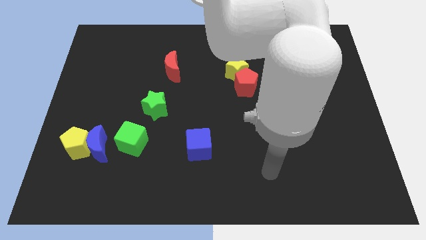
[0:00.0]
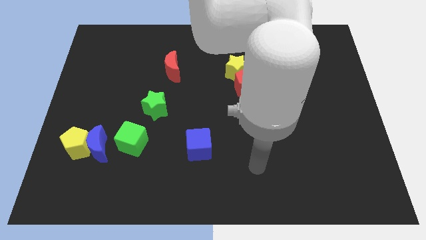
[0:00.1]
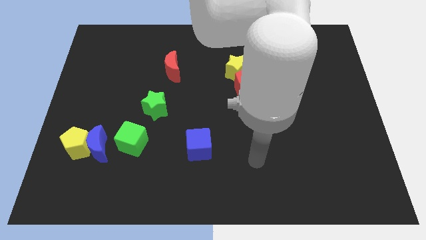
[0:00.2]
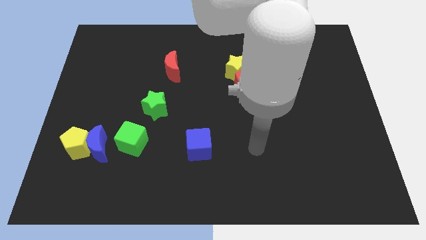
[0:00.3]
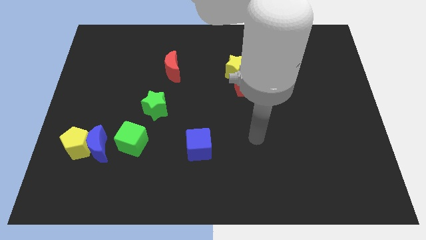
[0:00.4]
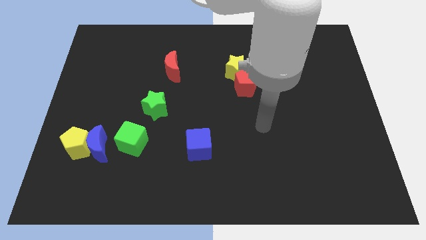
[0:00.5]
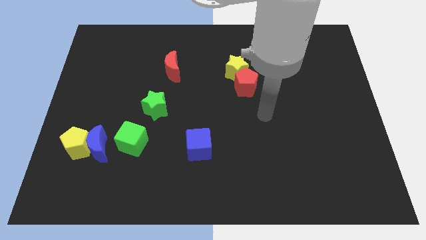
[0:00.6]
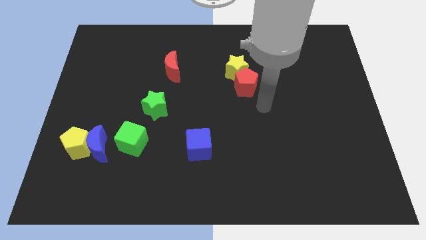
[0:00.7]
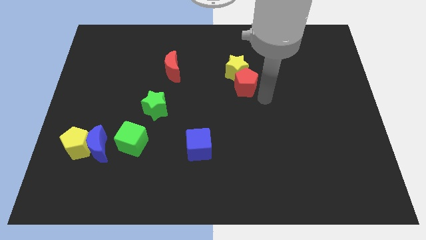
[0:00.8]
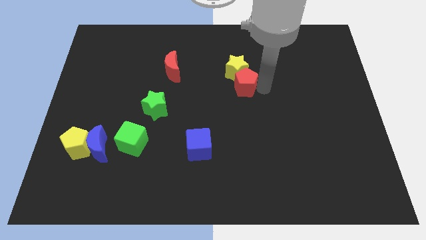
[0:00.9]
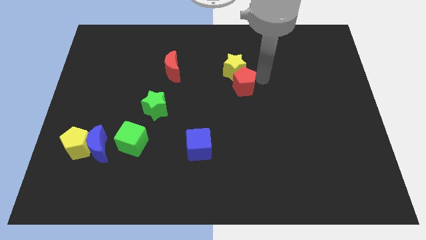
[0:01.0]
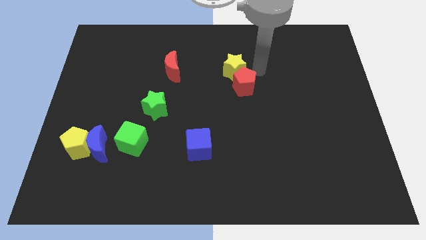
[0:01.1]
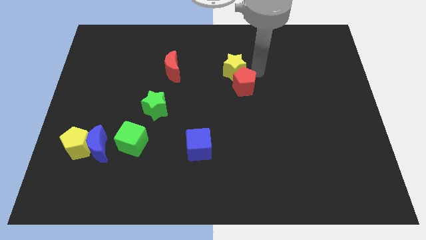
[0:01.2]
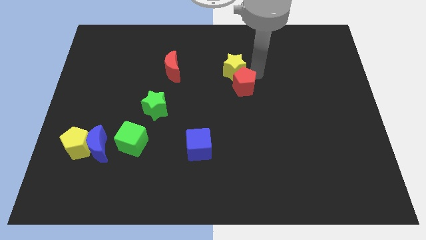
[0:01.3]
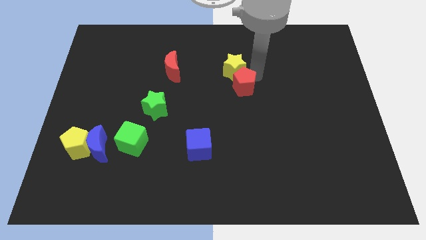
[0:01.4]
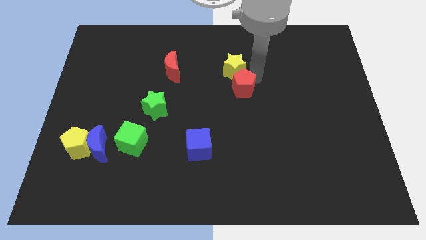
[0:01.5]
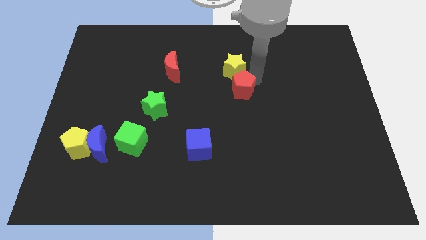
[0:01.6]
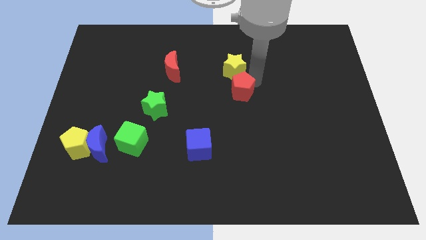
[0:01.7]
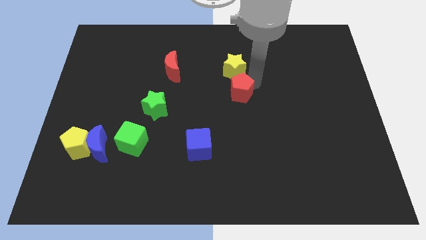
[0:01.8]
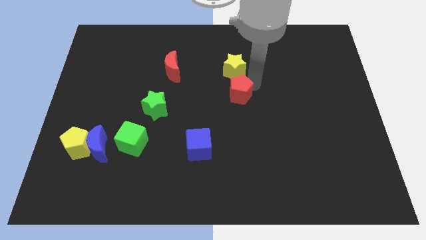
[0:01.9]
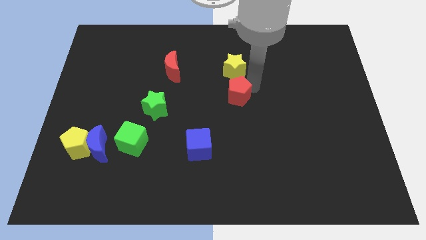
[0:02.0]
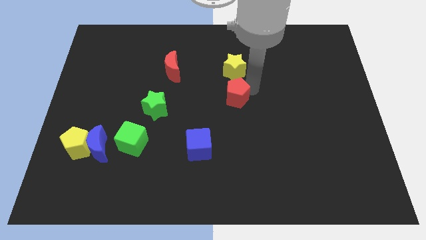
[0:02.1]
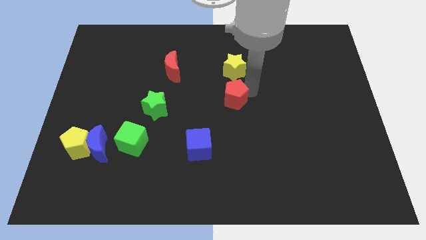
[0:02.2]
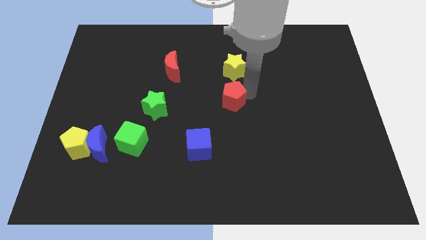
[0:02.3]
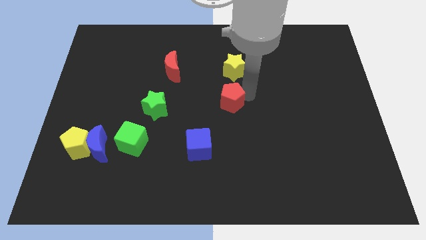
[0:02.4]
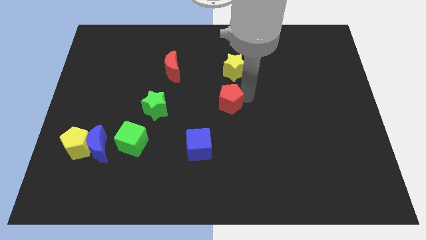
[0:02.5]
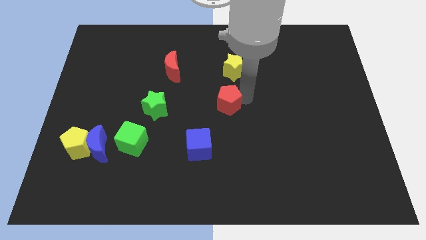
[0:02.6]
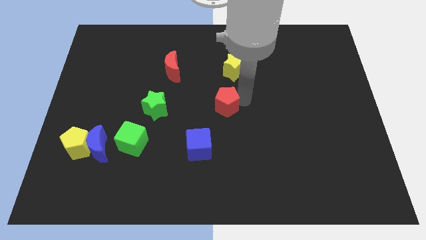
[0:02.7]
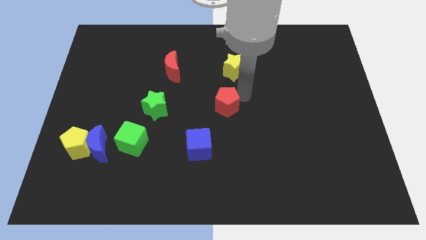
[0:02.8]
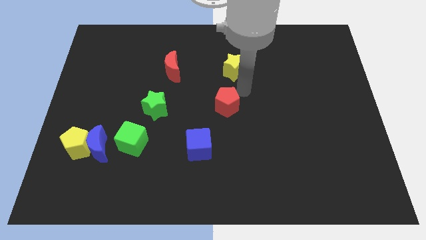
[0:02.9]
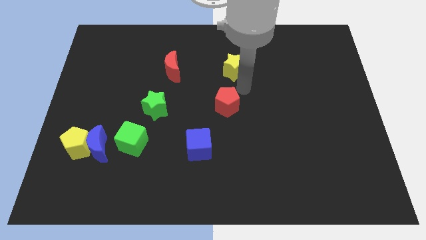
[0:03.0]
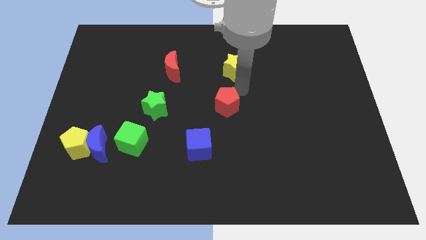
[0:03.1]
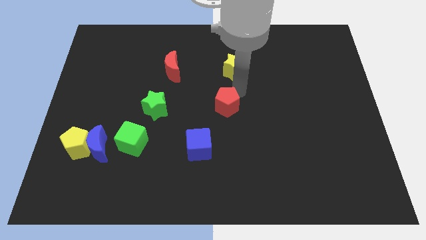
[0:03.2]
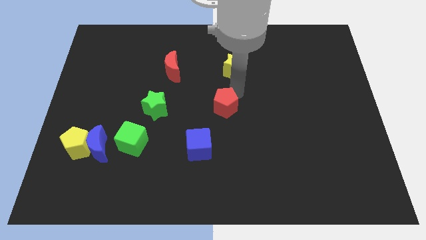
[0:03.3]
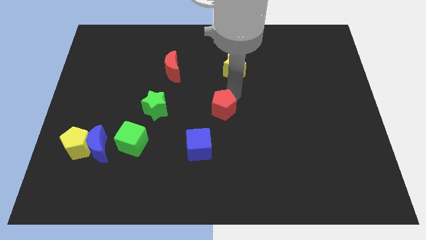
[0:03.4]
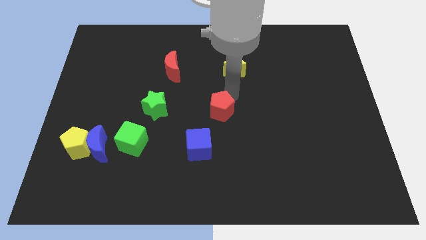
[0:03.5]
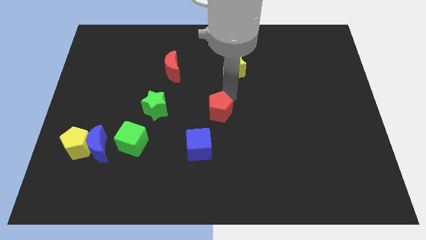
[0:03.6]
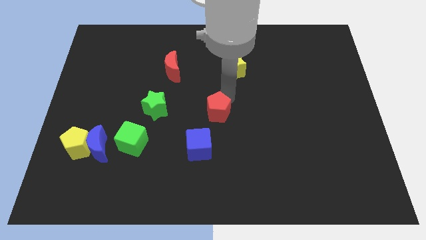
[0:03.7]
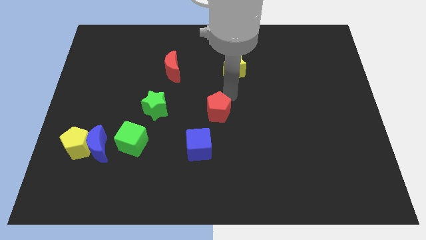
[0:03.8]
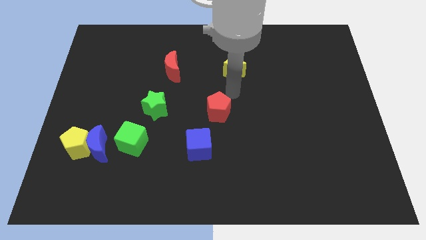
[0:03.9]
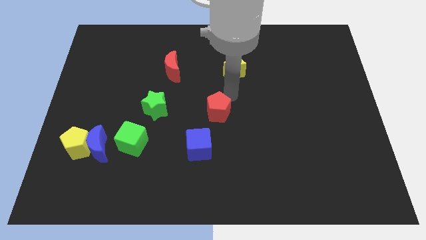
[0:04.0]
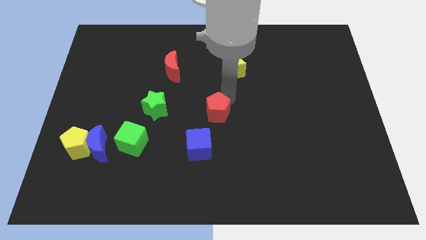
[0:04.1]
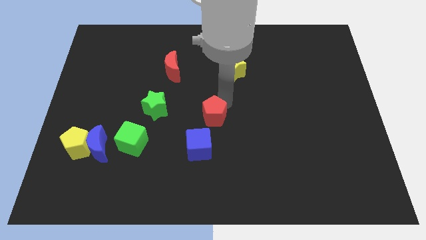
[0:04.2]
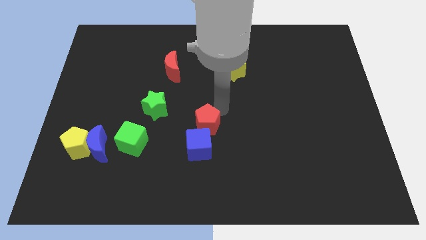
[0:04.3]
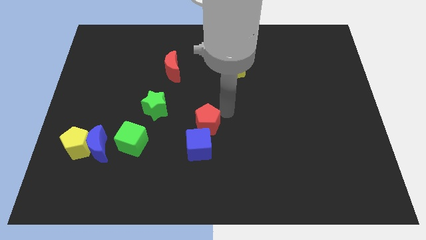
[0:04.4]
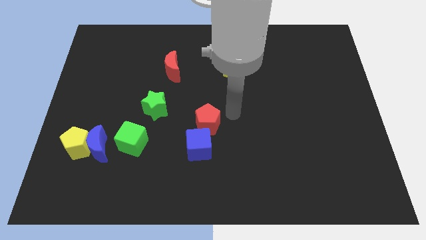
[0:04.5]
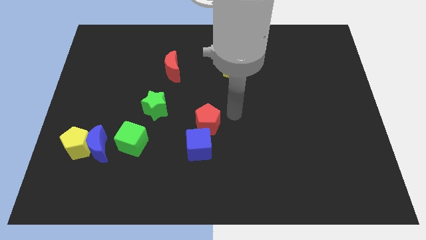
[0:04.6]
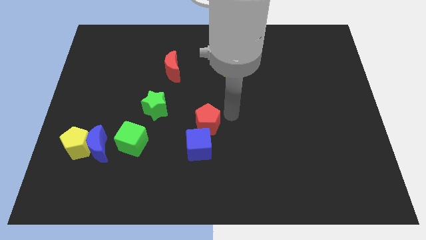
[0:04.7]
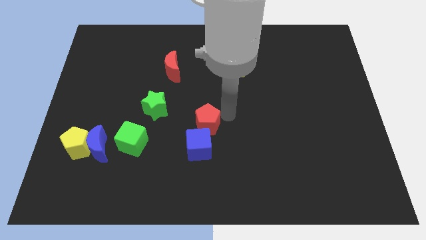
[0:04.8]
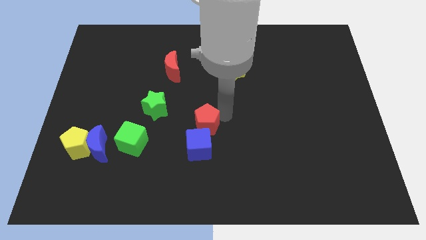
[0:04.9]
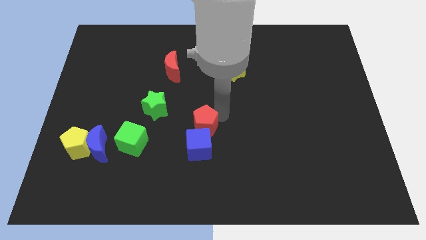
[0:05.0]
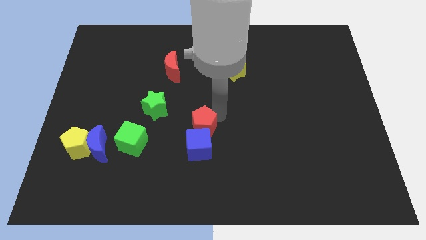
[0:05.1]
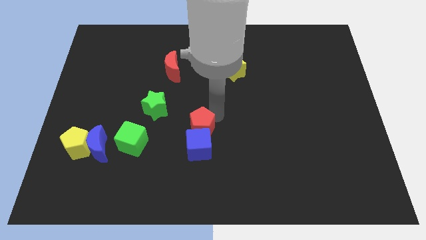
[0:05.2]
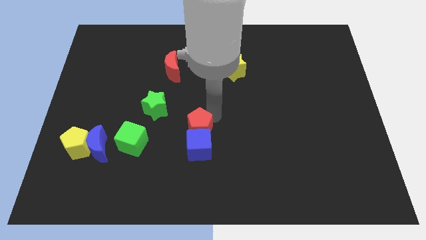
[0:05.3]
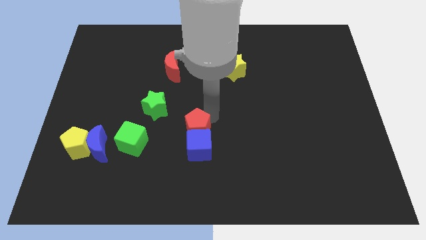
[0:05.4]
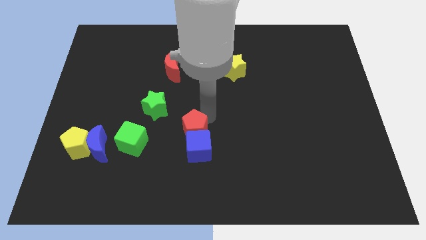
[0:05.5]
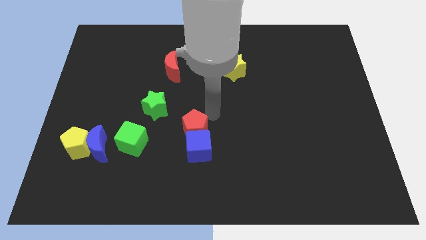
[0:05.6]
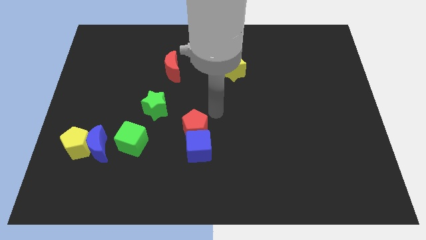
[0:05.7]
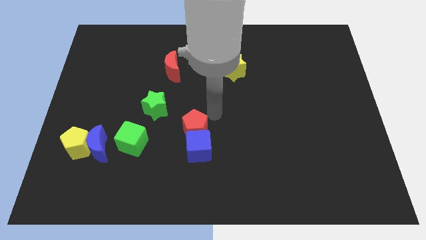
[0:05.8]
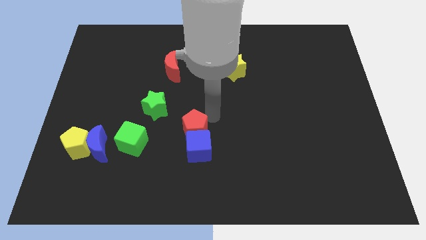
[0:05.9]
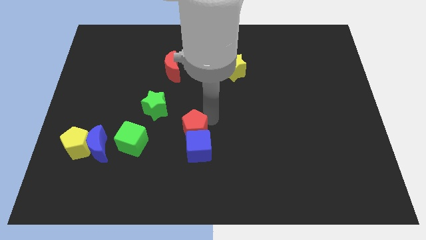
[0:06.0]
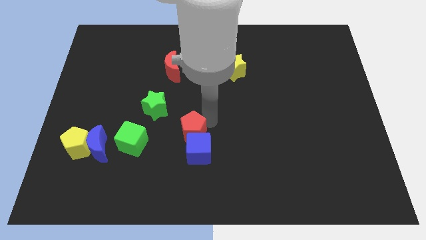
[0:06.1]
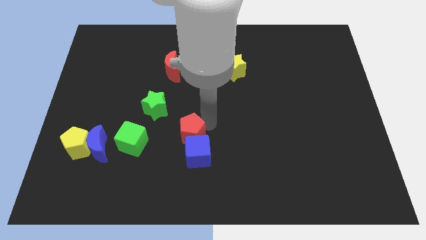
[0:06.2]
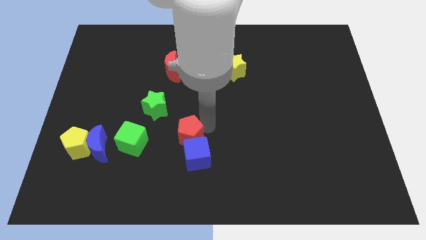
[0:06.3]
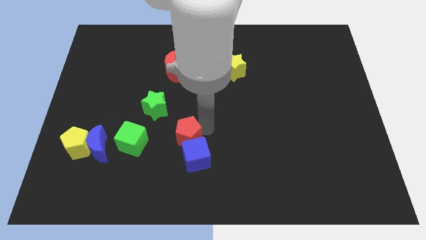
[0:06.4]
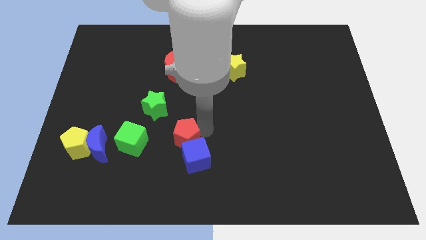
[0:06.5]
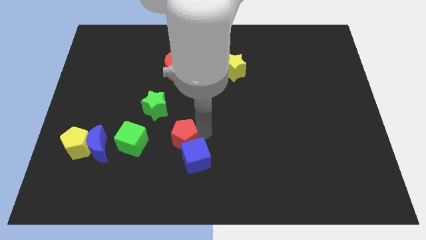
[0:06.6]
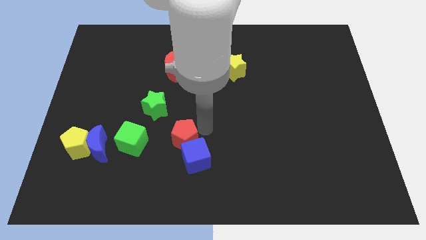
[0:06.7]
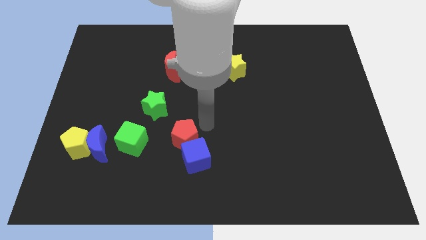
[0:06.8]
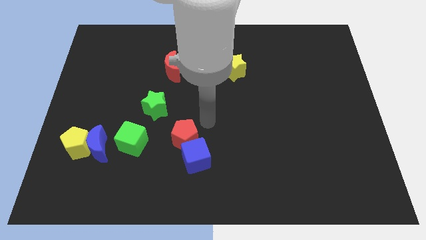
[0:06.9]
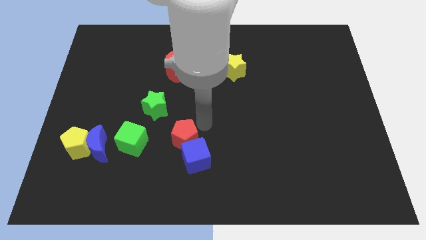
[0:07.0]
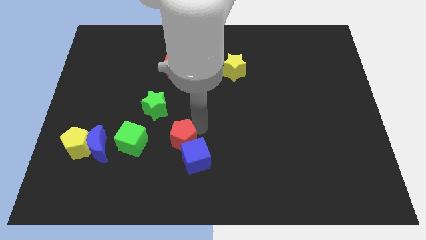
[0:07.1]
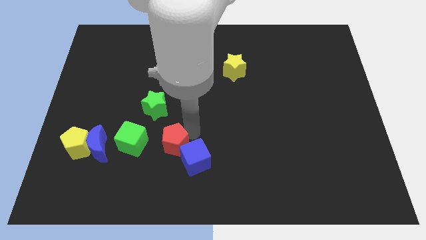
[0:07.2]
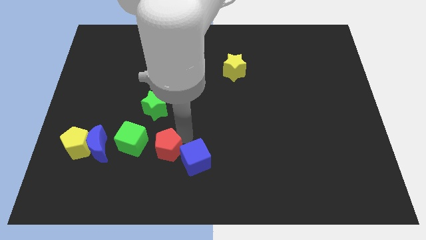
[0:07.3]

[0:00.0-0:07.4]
put the red pentagon to the bottom right side of the green cube

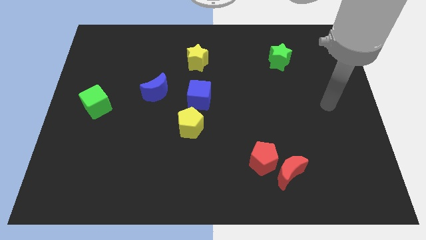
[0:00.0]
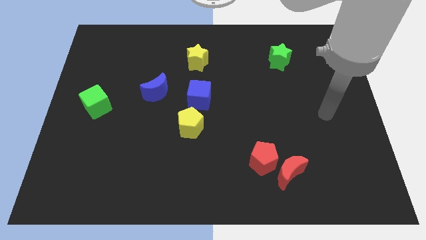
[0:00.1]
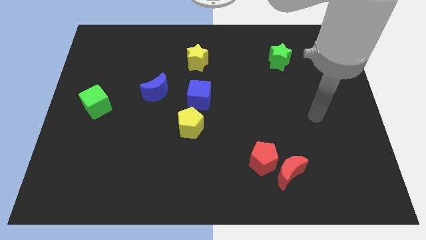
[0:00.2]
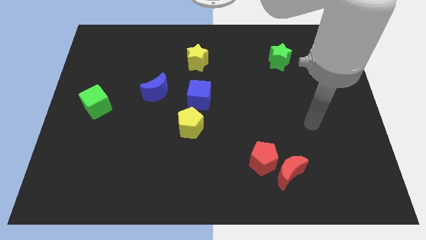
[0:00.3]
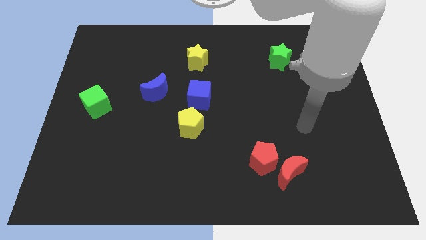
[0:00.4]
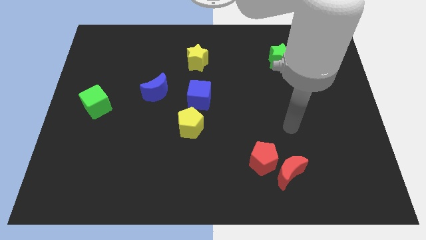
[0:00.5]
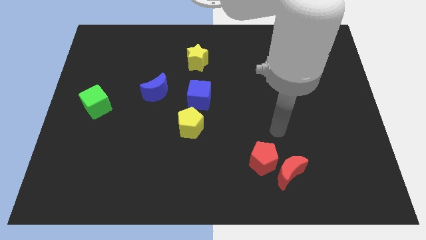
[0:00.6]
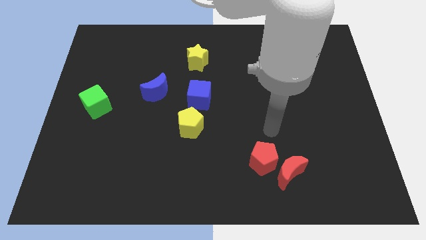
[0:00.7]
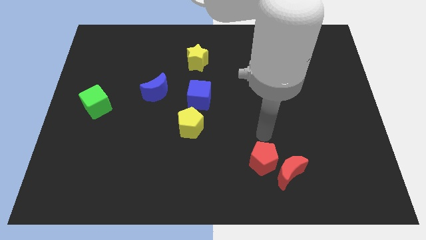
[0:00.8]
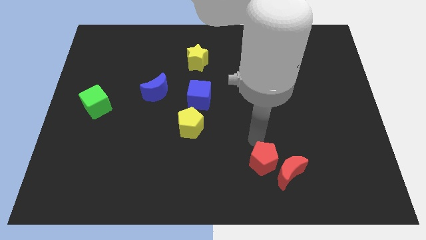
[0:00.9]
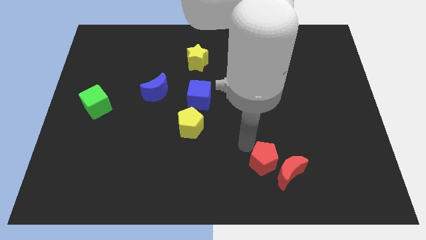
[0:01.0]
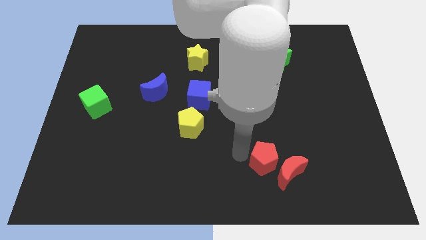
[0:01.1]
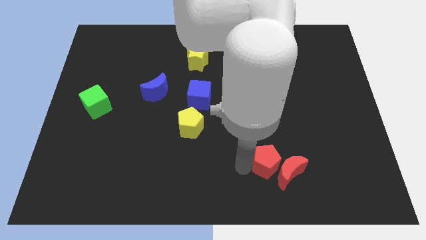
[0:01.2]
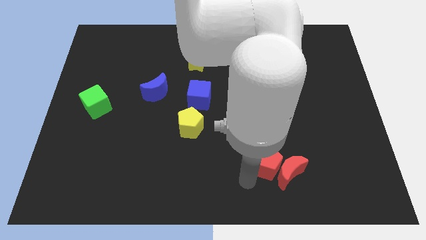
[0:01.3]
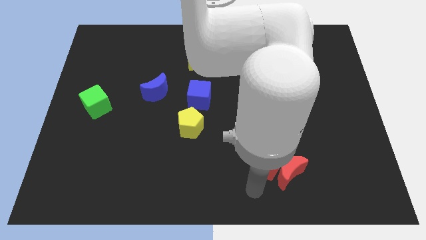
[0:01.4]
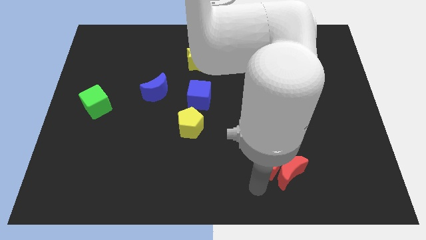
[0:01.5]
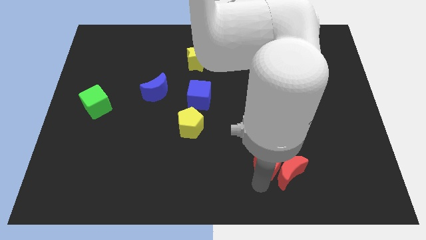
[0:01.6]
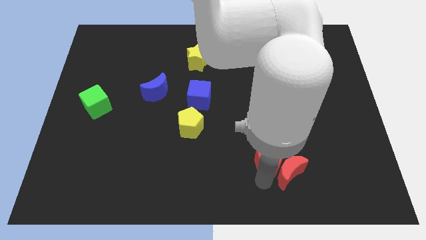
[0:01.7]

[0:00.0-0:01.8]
move the red pentagon above the red moon
